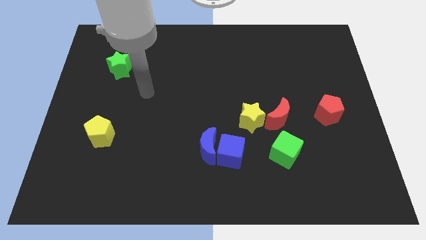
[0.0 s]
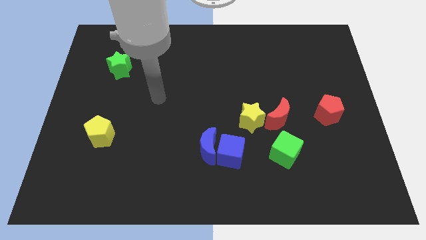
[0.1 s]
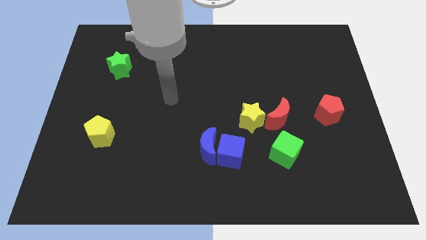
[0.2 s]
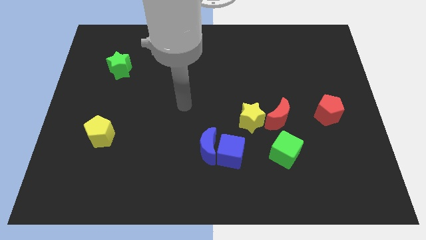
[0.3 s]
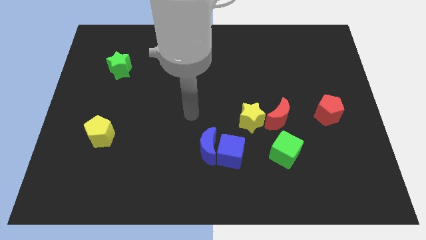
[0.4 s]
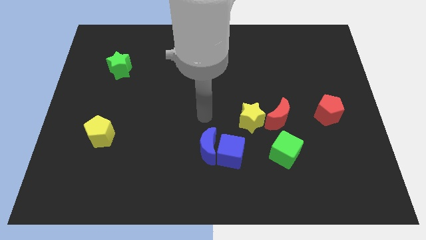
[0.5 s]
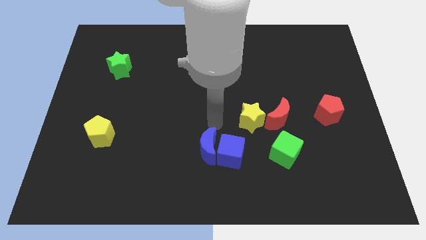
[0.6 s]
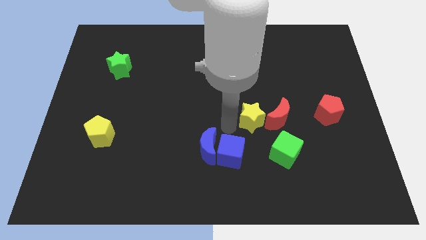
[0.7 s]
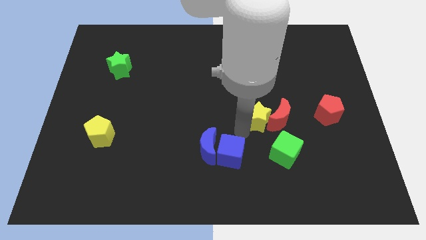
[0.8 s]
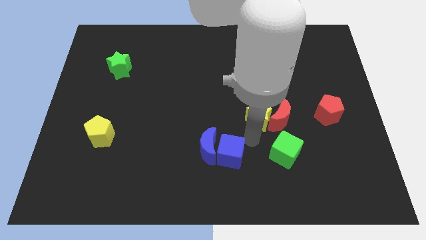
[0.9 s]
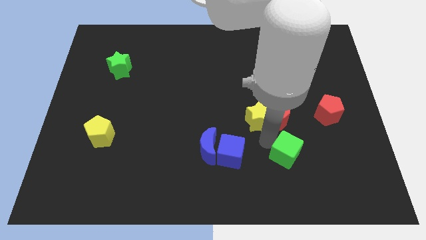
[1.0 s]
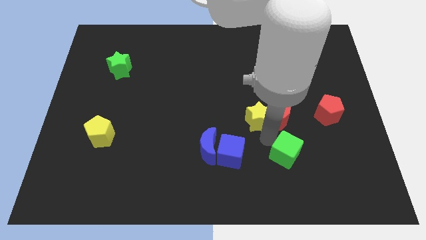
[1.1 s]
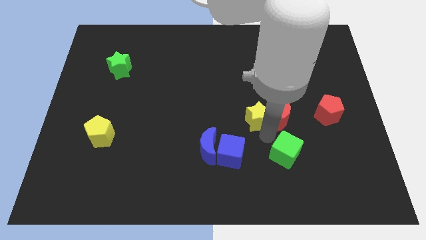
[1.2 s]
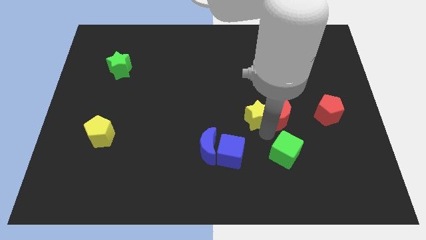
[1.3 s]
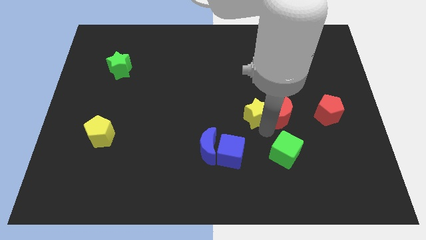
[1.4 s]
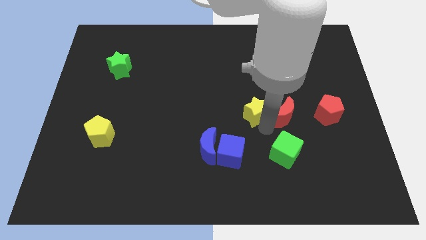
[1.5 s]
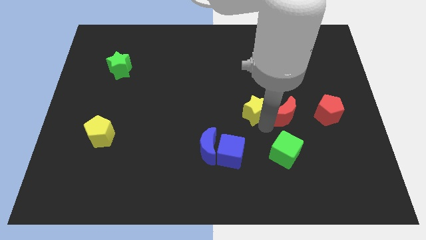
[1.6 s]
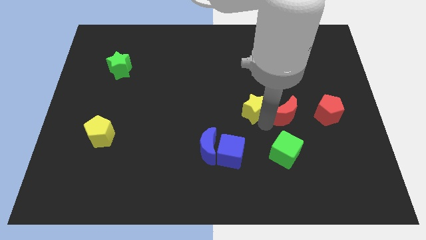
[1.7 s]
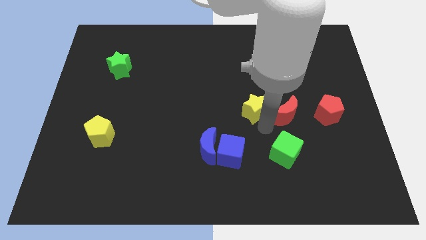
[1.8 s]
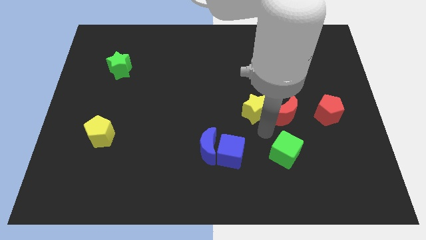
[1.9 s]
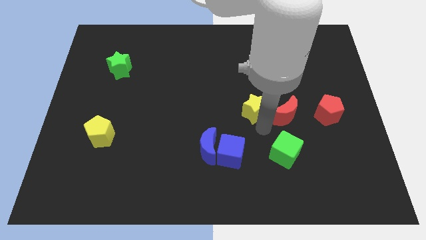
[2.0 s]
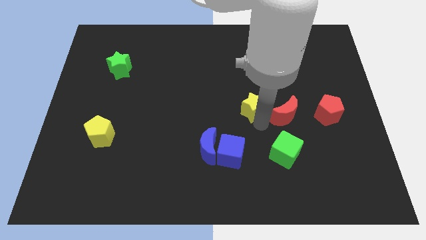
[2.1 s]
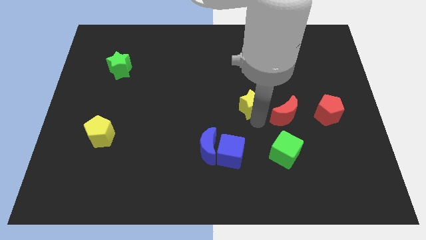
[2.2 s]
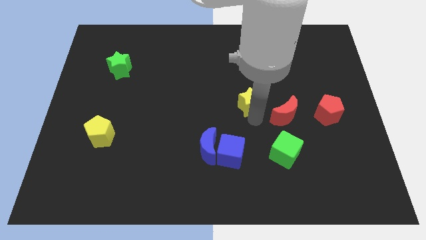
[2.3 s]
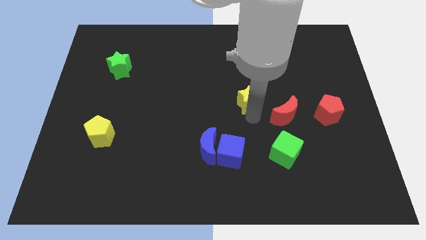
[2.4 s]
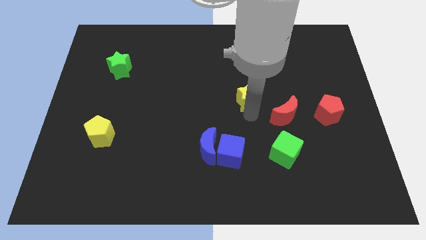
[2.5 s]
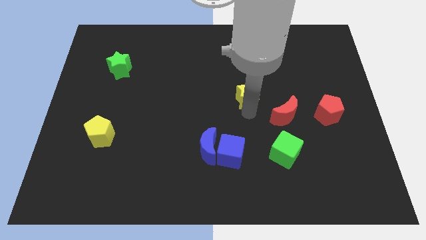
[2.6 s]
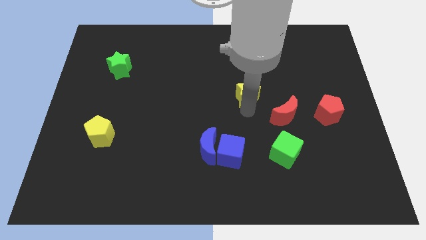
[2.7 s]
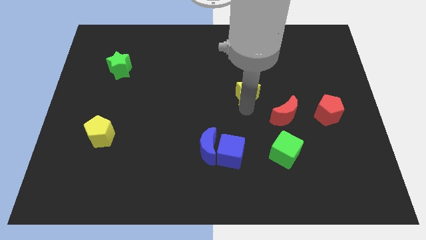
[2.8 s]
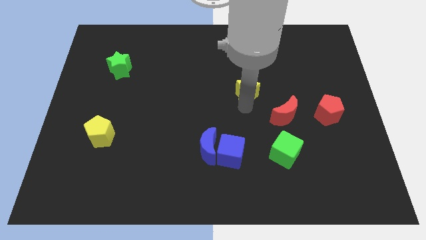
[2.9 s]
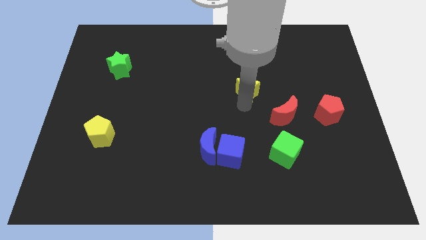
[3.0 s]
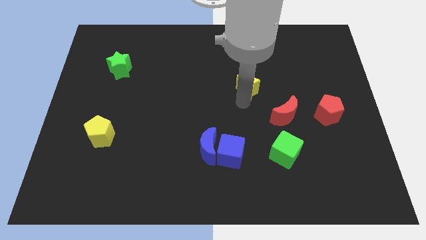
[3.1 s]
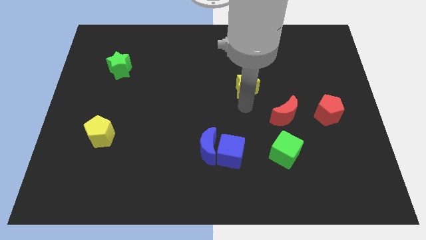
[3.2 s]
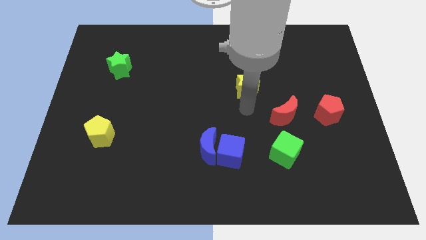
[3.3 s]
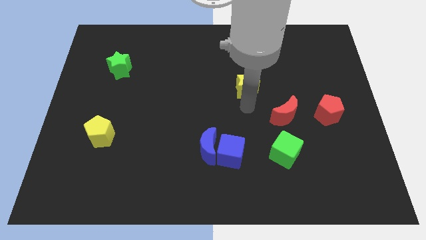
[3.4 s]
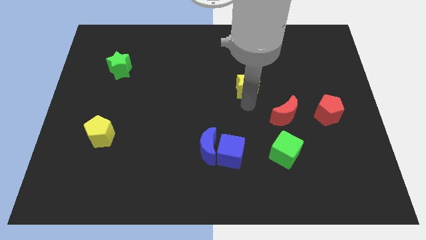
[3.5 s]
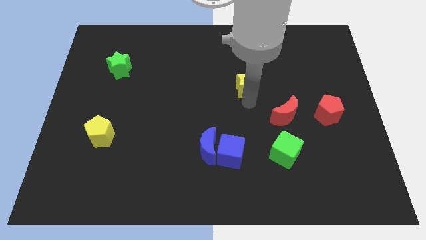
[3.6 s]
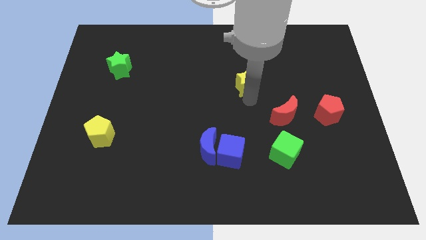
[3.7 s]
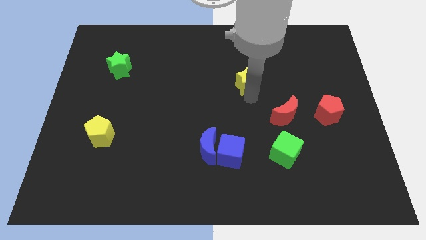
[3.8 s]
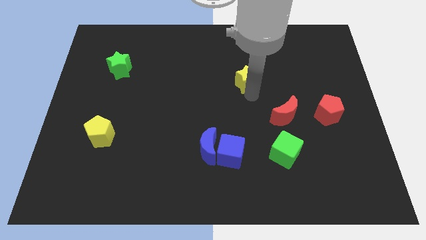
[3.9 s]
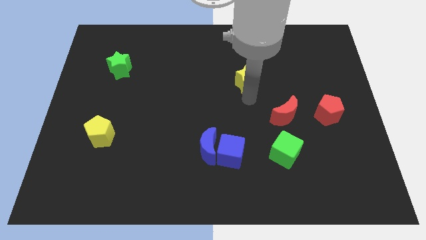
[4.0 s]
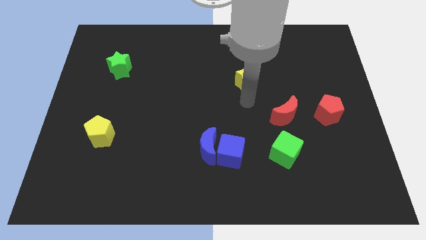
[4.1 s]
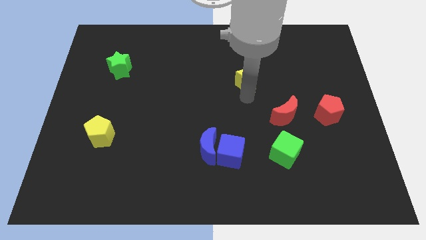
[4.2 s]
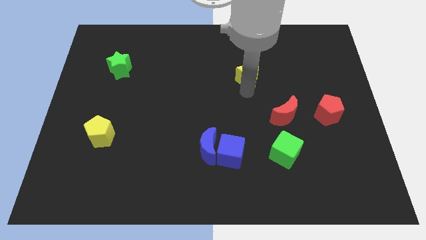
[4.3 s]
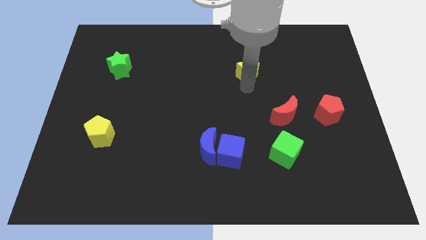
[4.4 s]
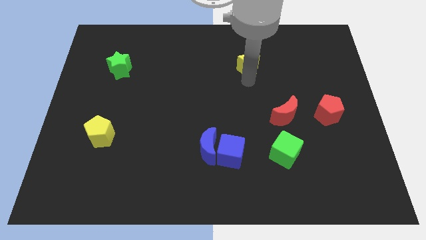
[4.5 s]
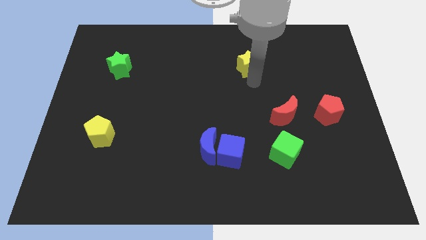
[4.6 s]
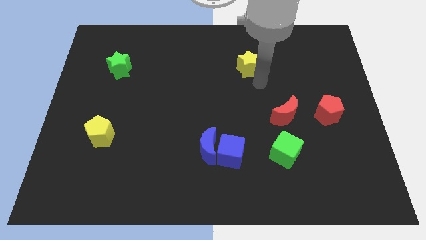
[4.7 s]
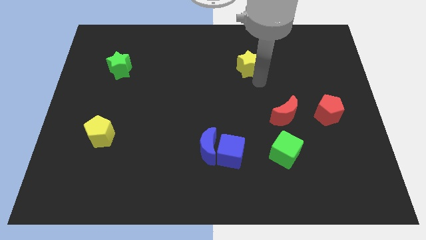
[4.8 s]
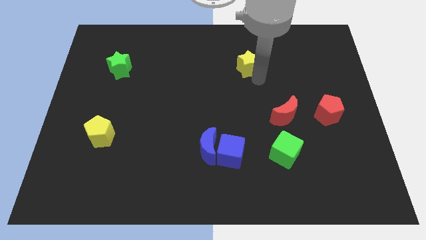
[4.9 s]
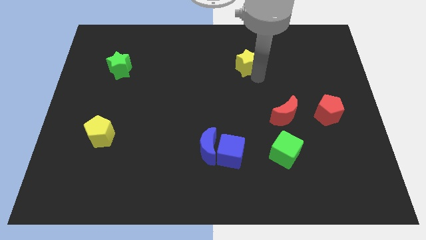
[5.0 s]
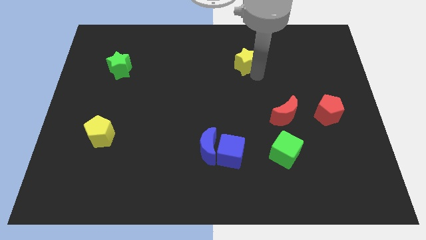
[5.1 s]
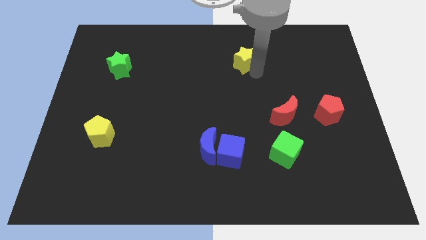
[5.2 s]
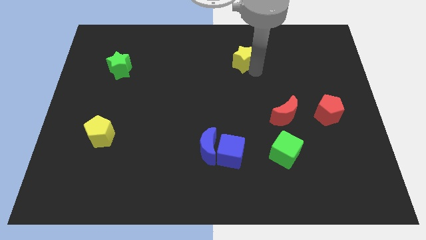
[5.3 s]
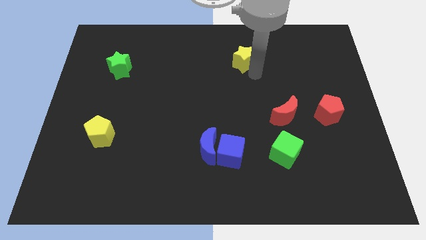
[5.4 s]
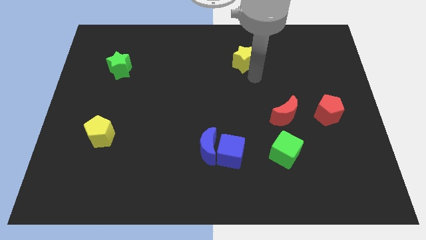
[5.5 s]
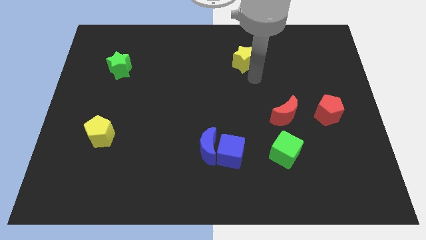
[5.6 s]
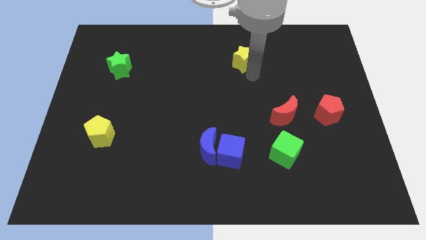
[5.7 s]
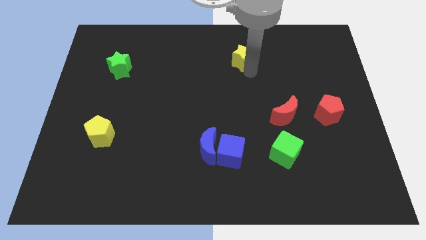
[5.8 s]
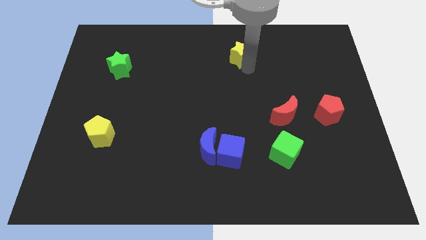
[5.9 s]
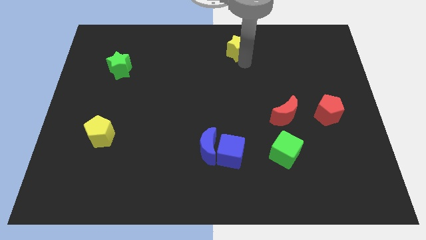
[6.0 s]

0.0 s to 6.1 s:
put the yellow star to the towards your base
